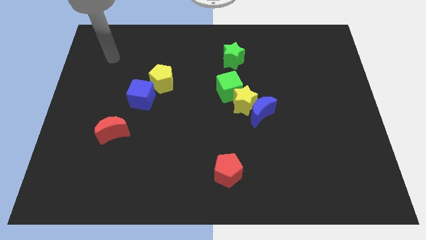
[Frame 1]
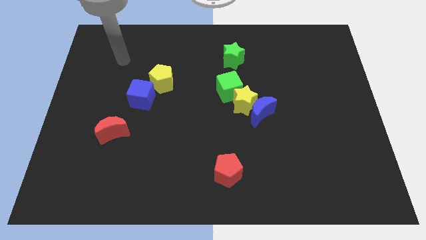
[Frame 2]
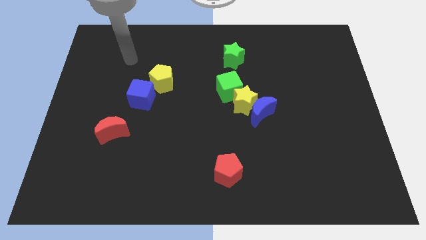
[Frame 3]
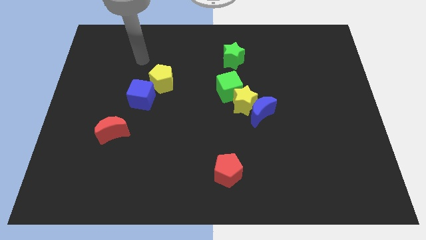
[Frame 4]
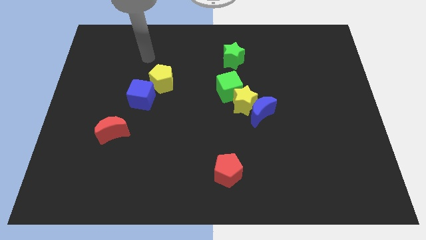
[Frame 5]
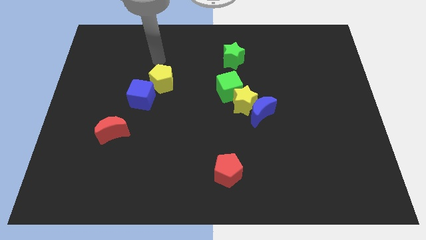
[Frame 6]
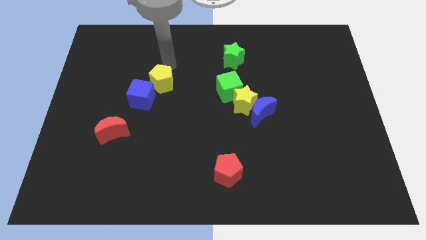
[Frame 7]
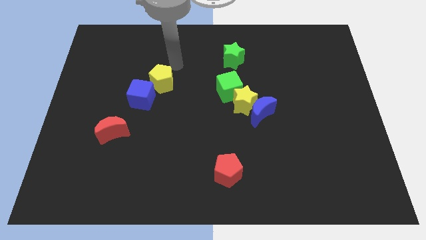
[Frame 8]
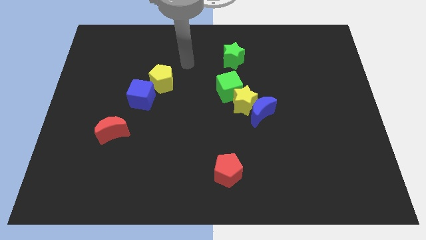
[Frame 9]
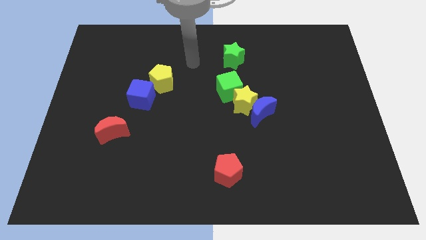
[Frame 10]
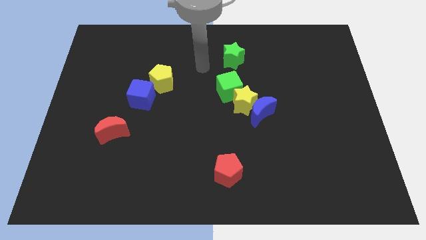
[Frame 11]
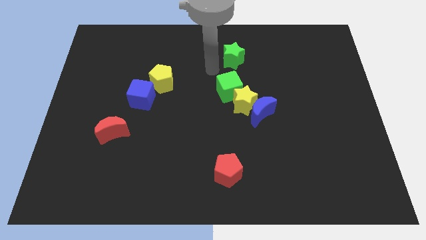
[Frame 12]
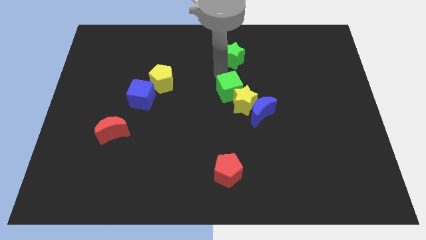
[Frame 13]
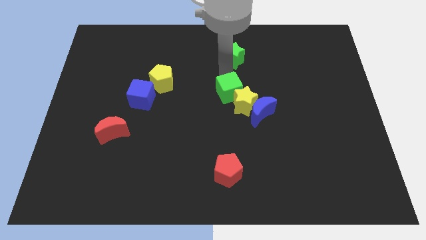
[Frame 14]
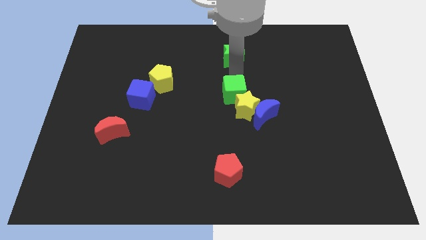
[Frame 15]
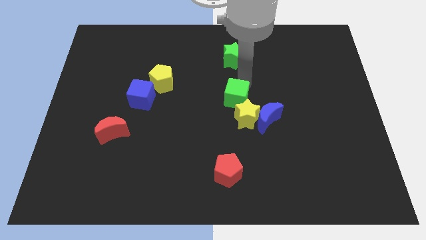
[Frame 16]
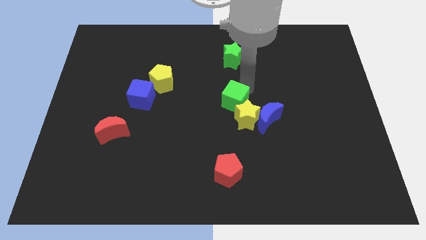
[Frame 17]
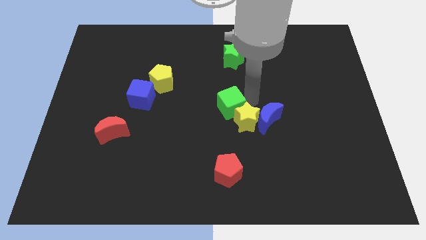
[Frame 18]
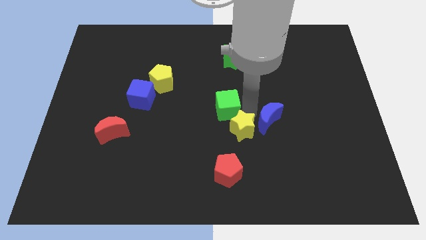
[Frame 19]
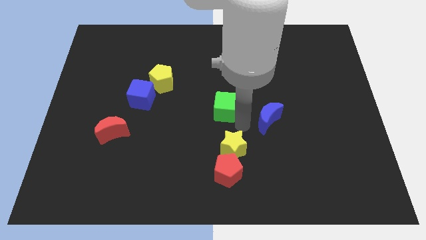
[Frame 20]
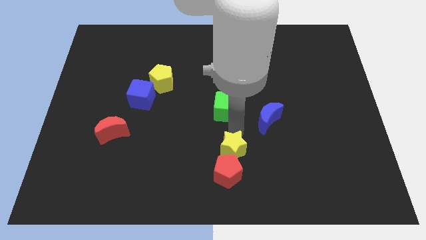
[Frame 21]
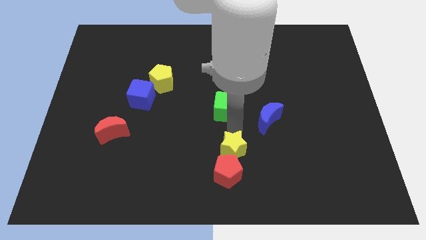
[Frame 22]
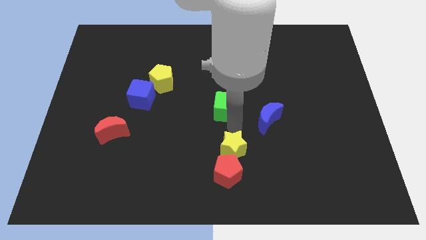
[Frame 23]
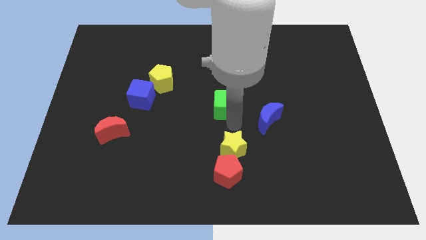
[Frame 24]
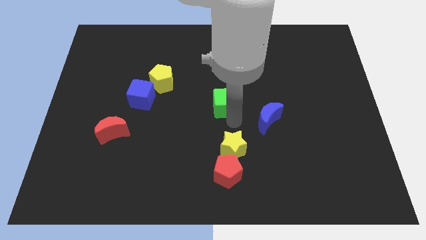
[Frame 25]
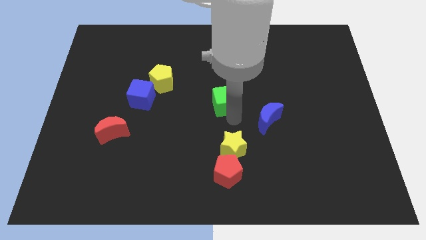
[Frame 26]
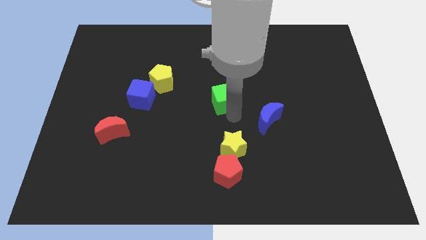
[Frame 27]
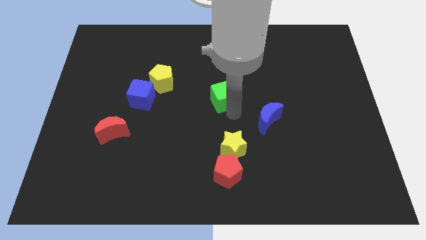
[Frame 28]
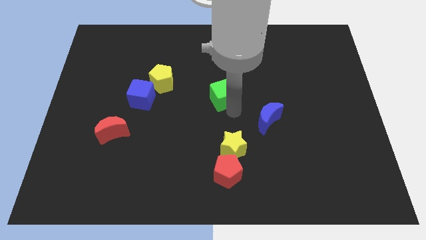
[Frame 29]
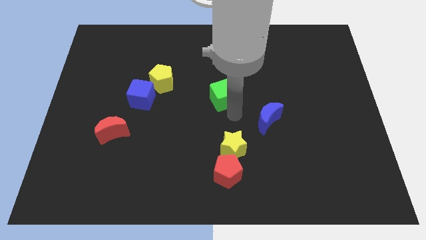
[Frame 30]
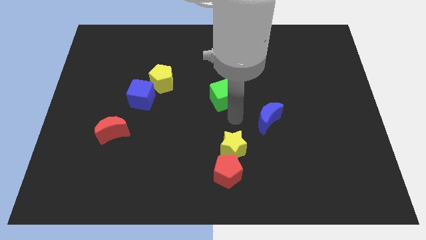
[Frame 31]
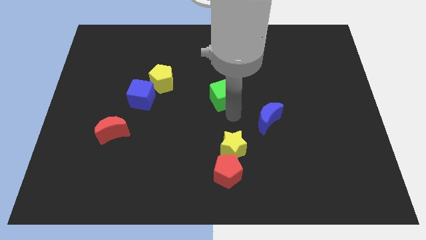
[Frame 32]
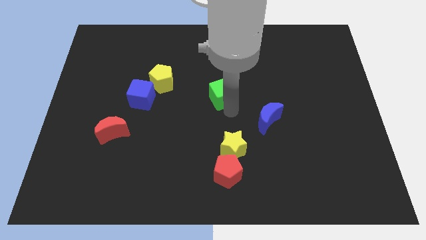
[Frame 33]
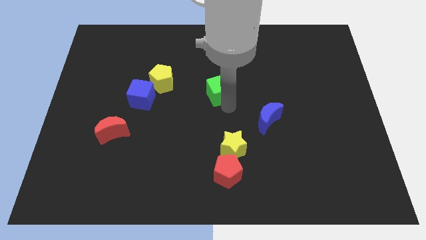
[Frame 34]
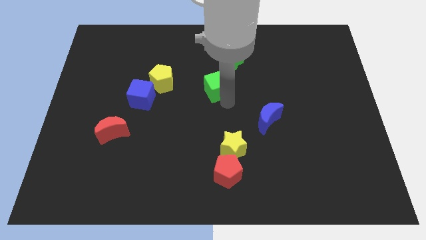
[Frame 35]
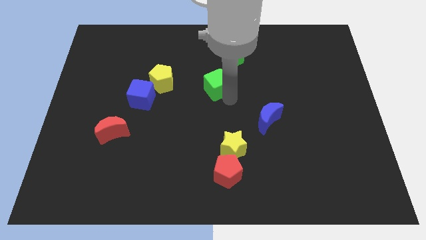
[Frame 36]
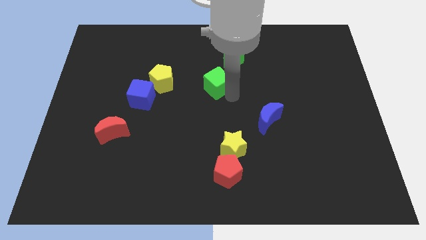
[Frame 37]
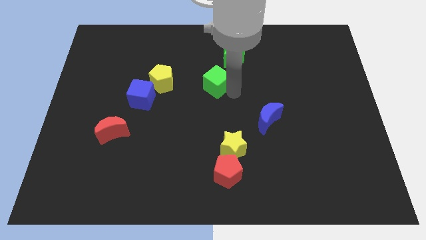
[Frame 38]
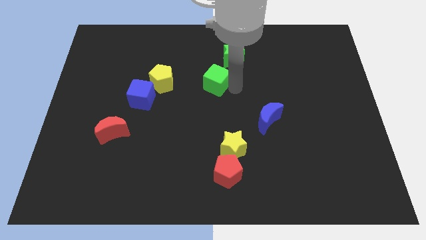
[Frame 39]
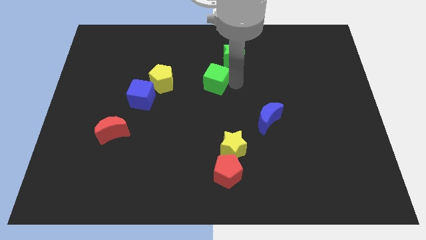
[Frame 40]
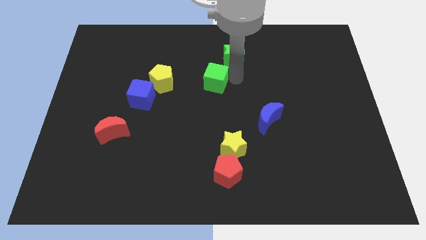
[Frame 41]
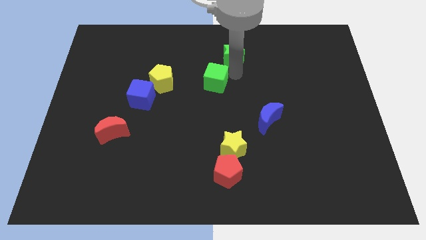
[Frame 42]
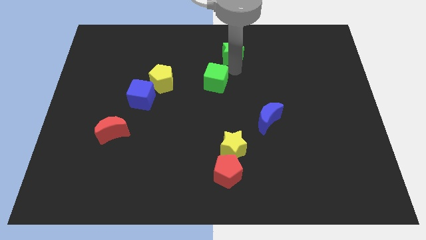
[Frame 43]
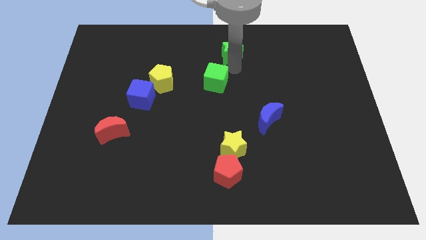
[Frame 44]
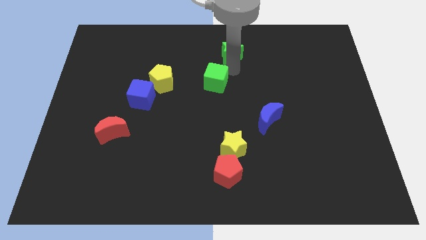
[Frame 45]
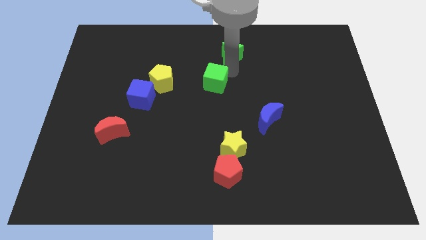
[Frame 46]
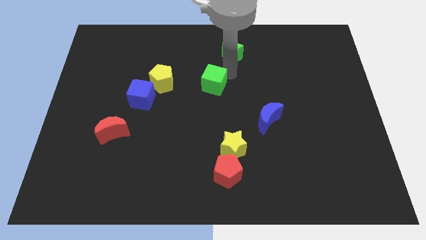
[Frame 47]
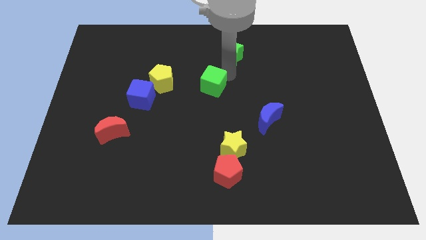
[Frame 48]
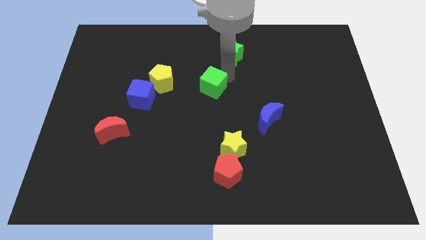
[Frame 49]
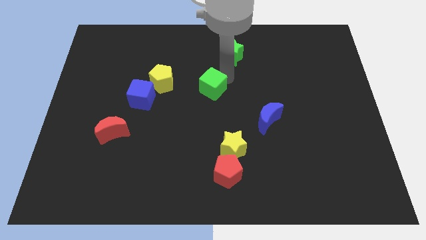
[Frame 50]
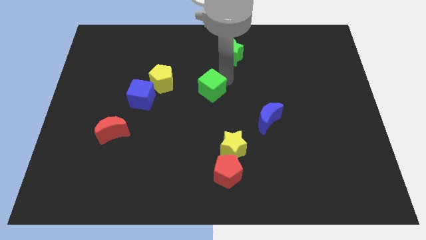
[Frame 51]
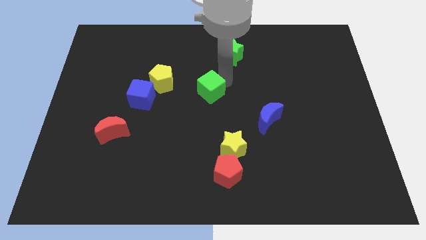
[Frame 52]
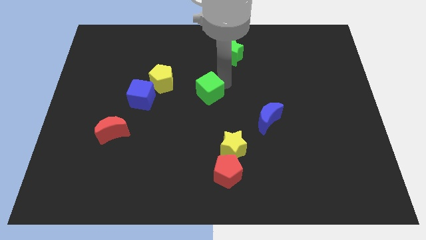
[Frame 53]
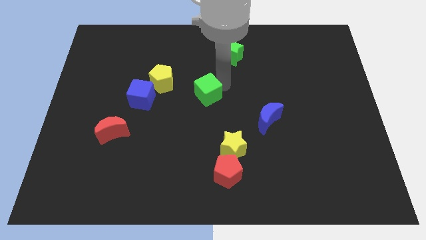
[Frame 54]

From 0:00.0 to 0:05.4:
push the green cube to the right side of the blue cube

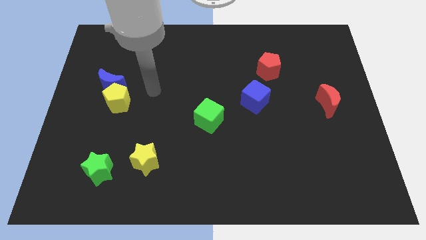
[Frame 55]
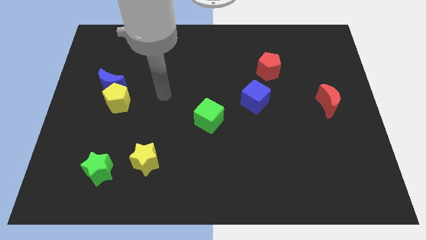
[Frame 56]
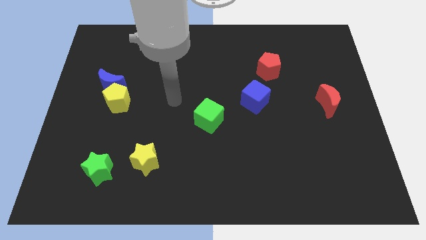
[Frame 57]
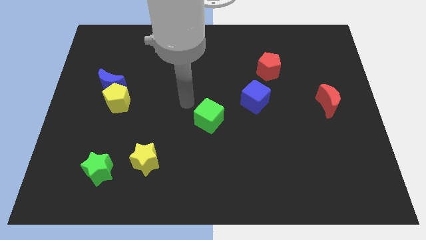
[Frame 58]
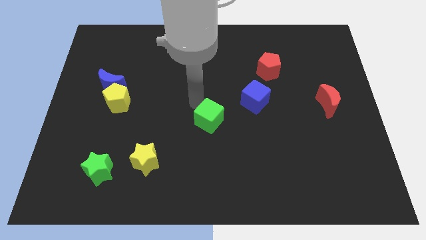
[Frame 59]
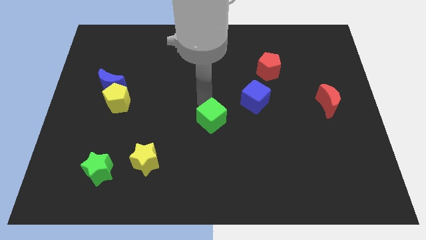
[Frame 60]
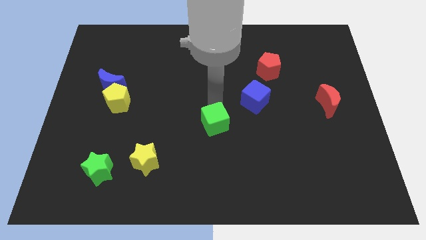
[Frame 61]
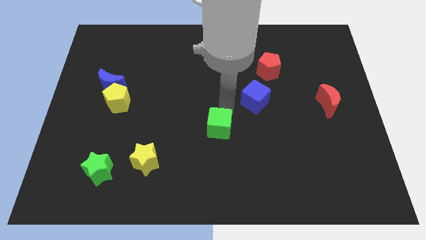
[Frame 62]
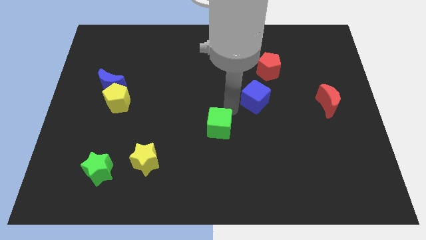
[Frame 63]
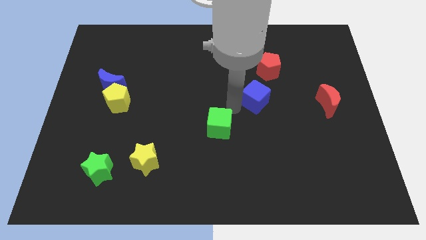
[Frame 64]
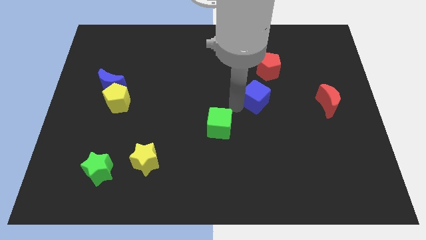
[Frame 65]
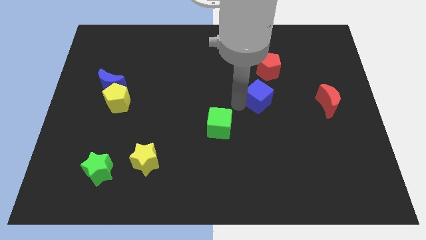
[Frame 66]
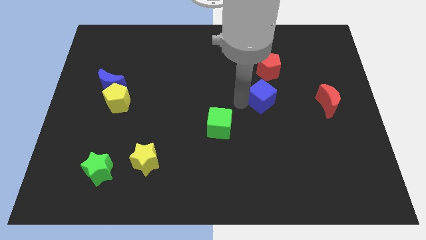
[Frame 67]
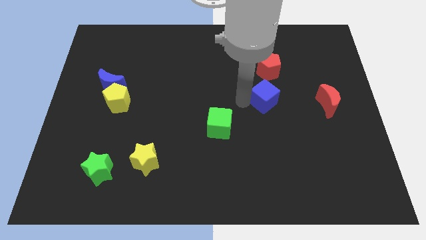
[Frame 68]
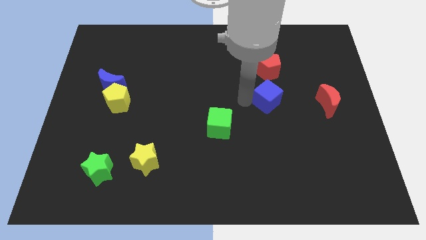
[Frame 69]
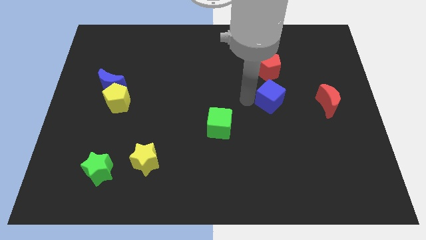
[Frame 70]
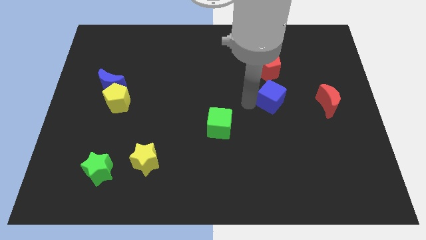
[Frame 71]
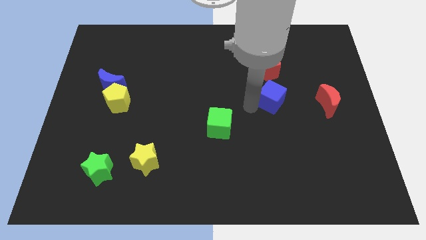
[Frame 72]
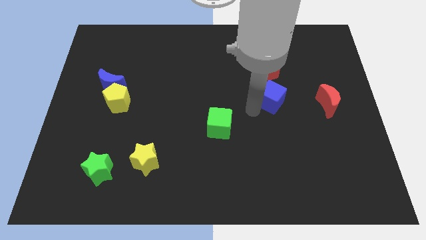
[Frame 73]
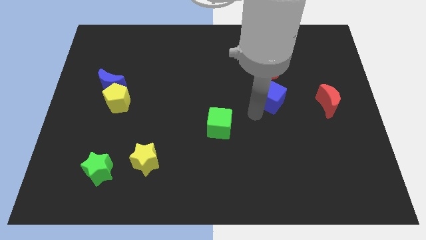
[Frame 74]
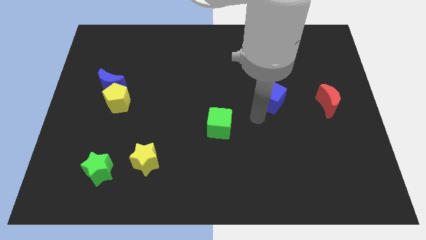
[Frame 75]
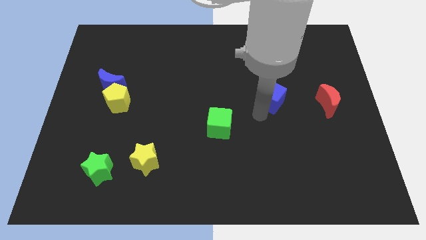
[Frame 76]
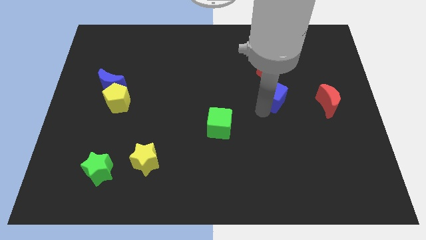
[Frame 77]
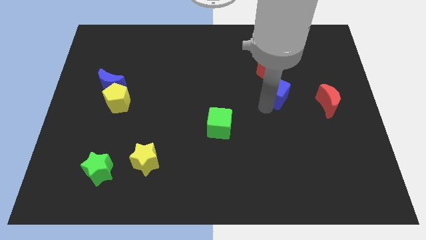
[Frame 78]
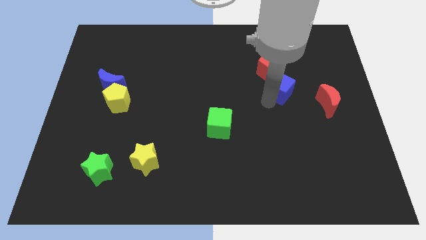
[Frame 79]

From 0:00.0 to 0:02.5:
move the blue cube diagonally down and to the right of the red pentagon
